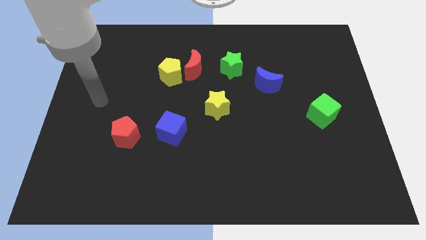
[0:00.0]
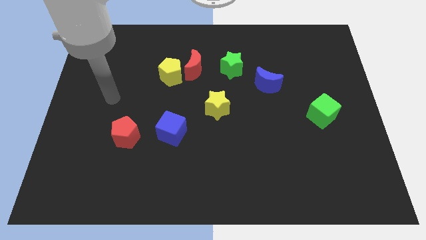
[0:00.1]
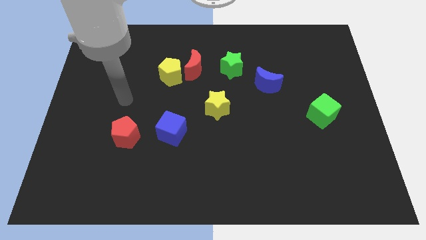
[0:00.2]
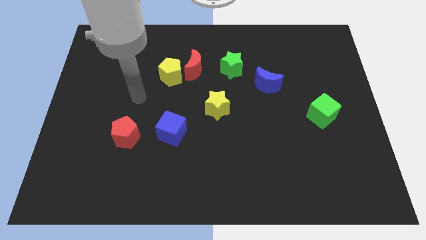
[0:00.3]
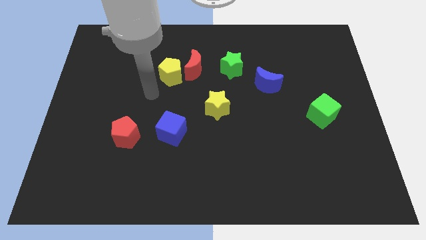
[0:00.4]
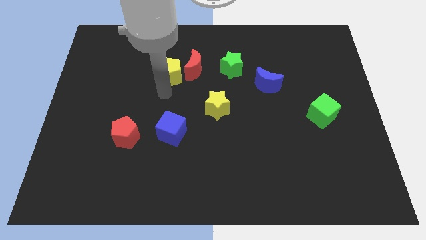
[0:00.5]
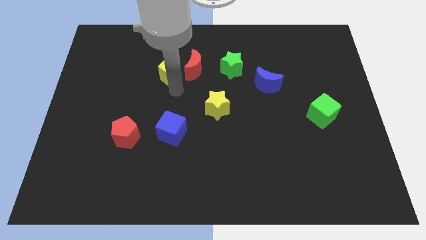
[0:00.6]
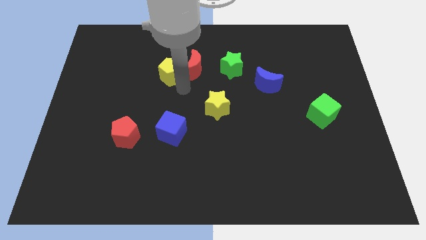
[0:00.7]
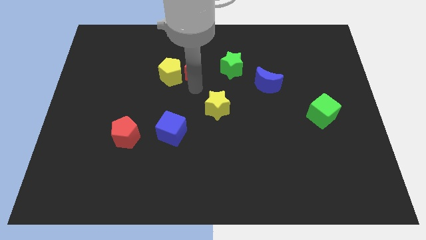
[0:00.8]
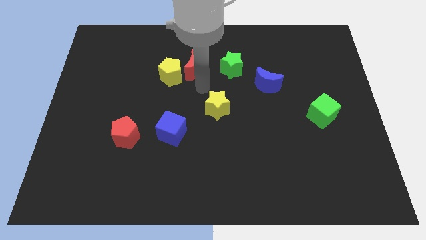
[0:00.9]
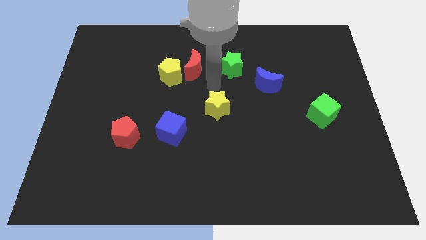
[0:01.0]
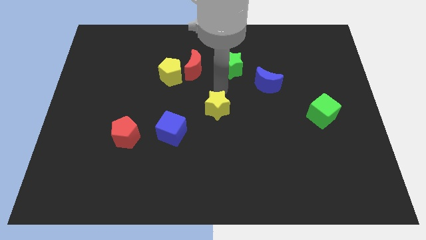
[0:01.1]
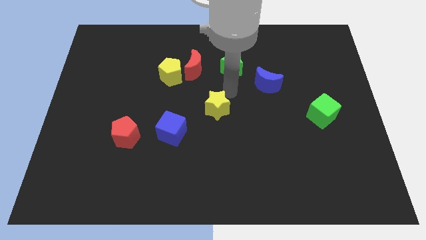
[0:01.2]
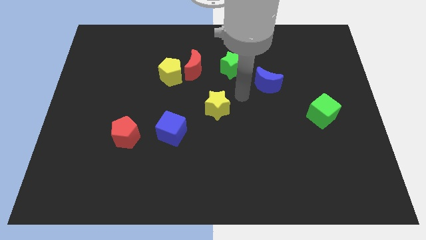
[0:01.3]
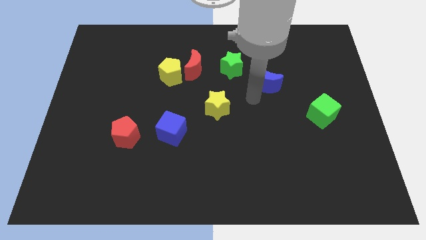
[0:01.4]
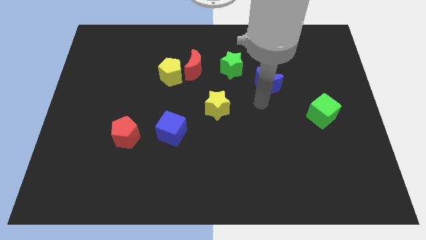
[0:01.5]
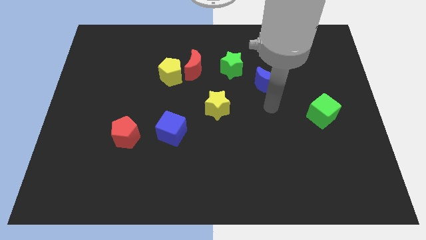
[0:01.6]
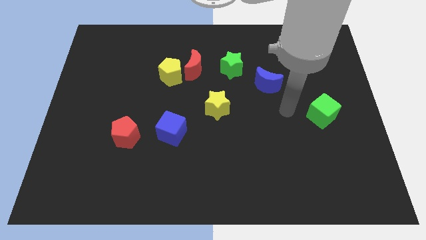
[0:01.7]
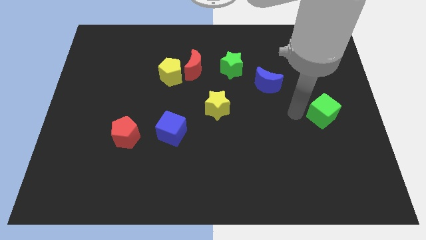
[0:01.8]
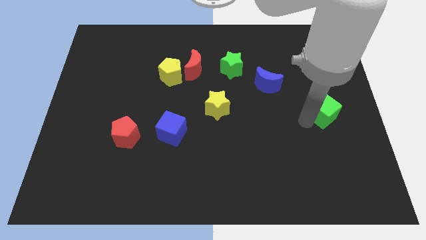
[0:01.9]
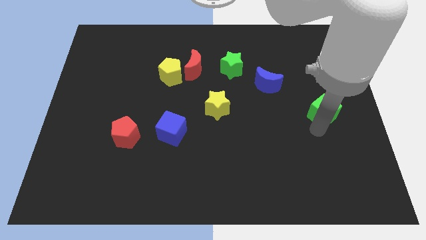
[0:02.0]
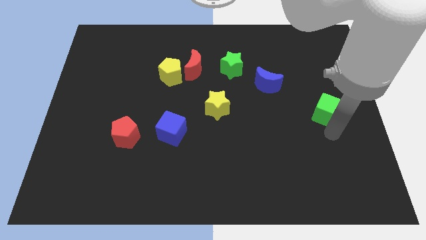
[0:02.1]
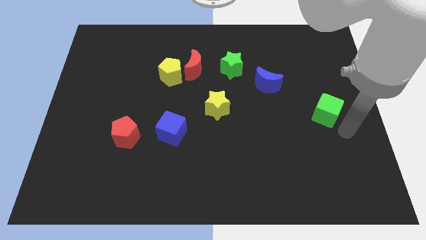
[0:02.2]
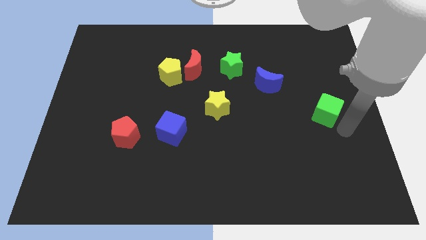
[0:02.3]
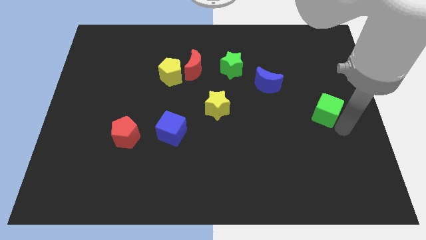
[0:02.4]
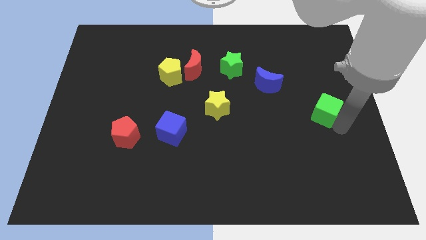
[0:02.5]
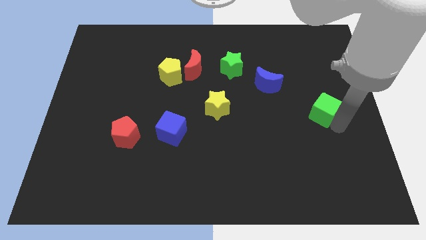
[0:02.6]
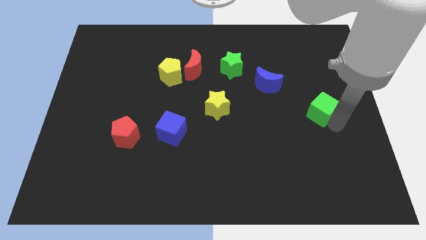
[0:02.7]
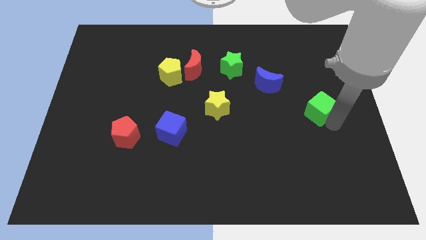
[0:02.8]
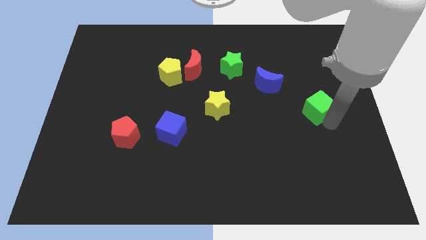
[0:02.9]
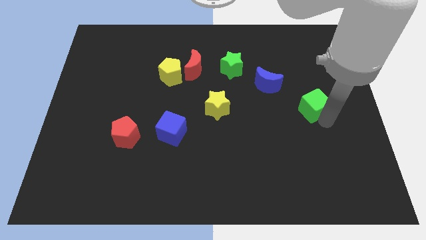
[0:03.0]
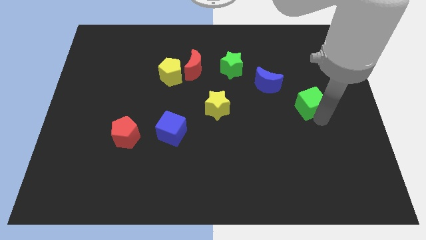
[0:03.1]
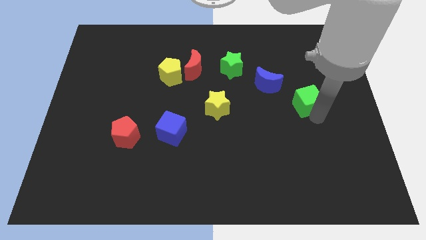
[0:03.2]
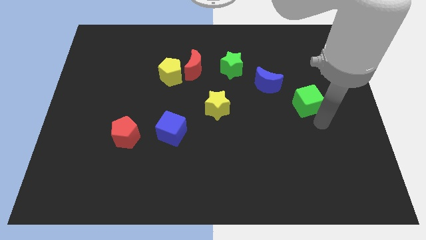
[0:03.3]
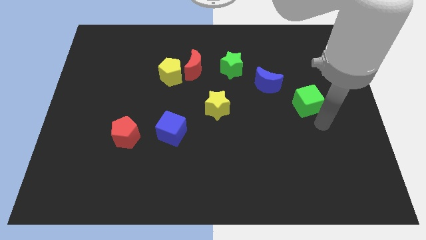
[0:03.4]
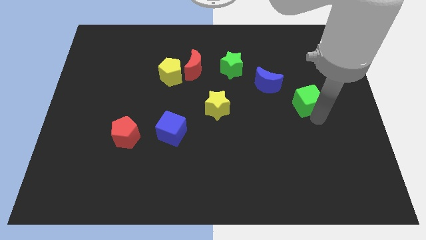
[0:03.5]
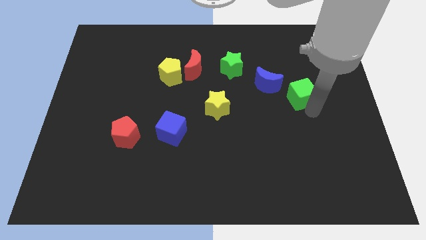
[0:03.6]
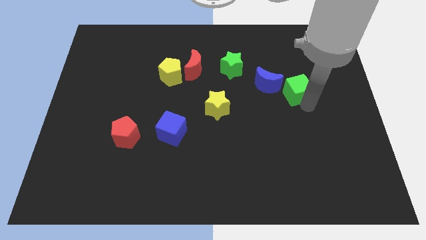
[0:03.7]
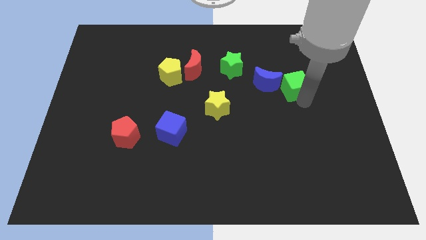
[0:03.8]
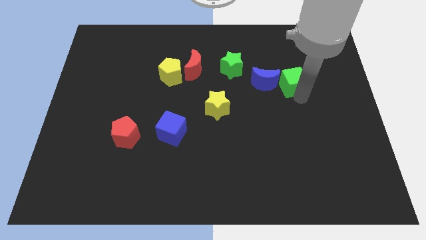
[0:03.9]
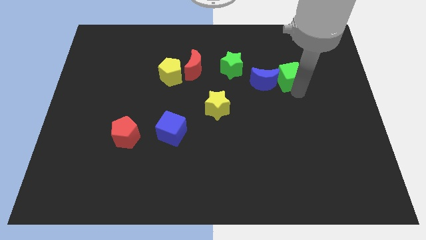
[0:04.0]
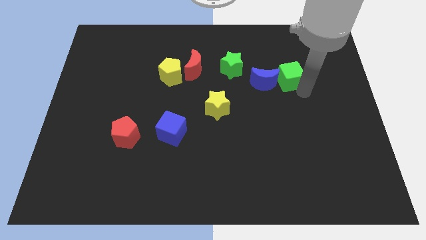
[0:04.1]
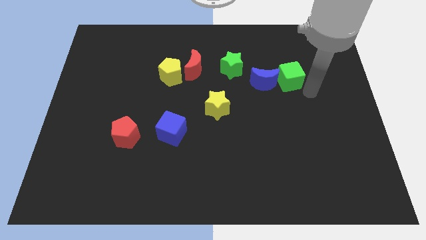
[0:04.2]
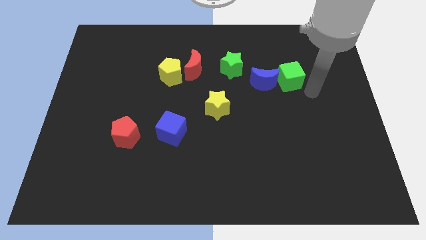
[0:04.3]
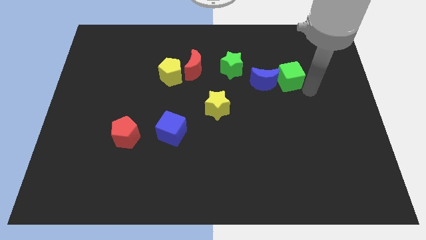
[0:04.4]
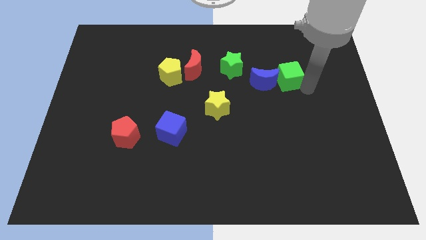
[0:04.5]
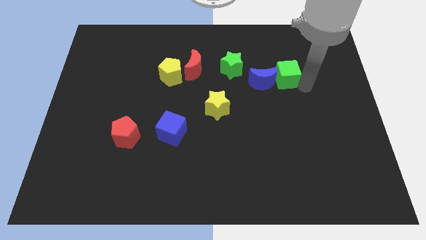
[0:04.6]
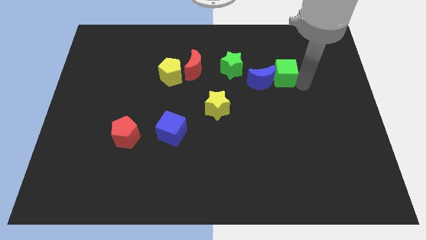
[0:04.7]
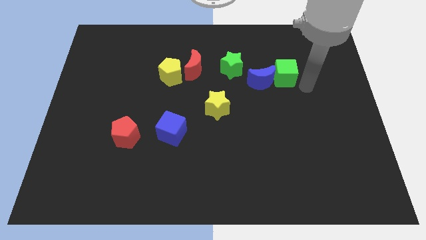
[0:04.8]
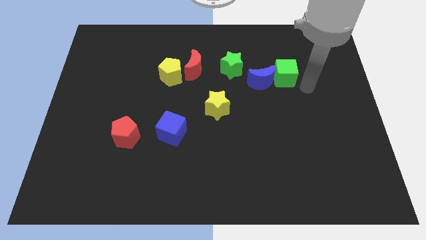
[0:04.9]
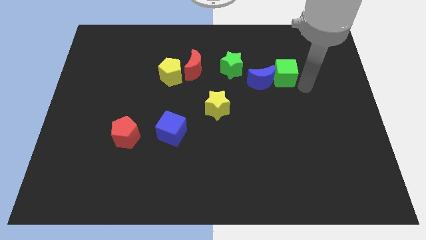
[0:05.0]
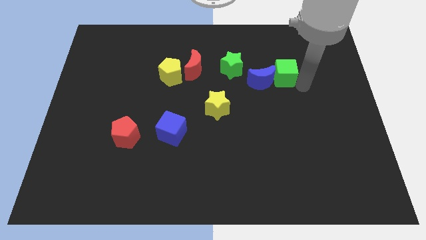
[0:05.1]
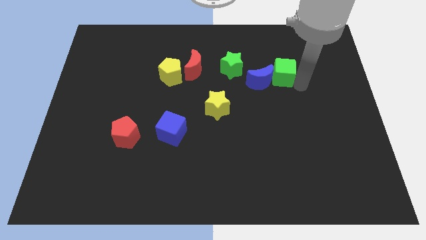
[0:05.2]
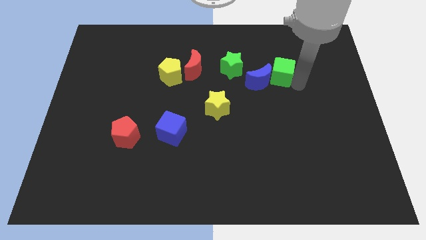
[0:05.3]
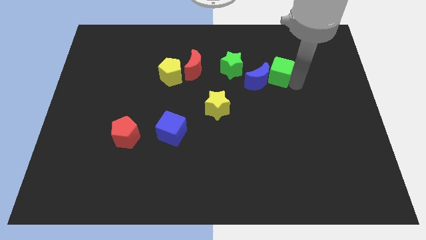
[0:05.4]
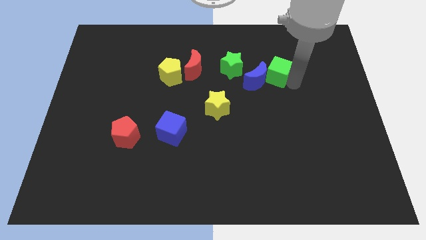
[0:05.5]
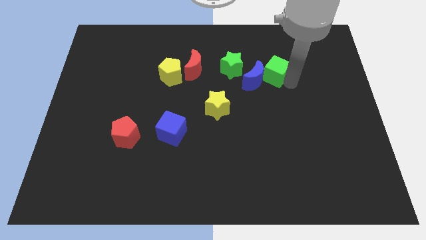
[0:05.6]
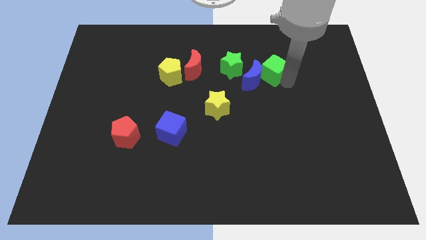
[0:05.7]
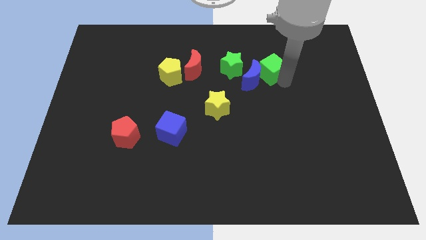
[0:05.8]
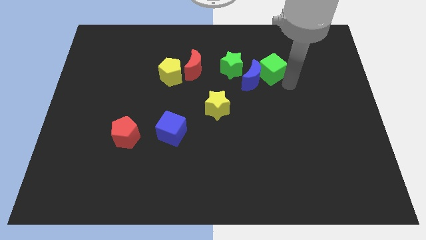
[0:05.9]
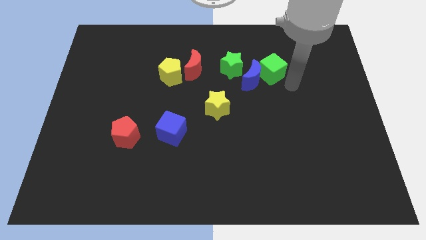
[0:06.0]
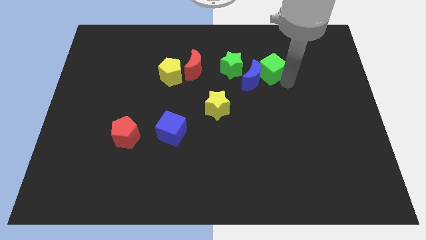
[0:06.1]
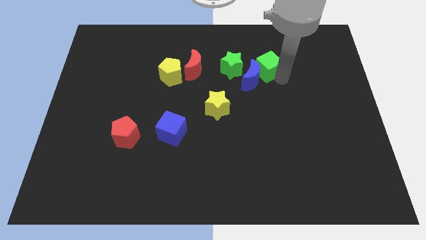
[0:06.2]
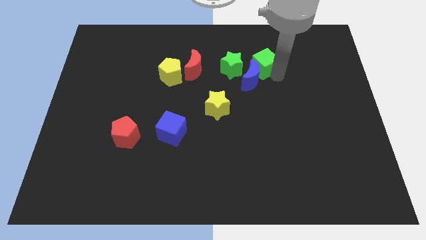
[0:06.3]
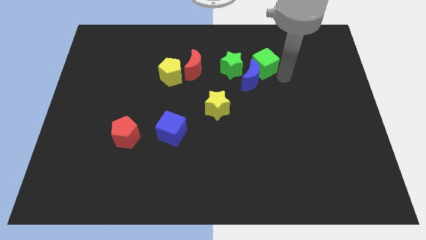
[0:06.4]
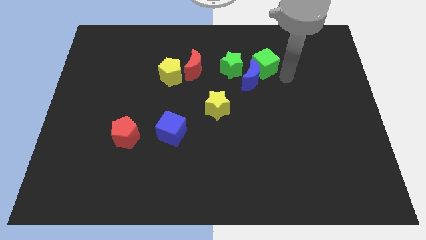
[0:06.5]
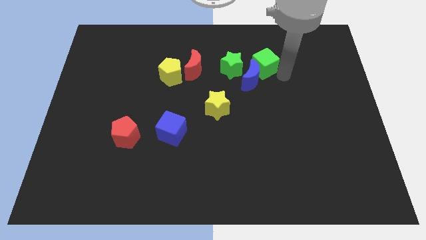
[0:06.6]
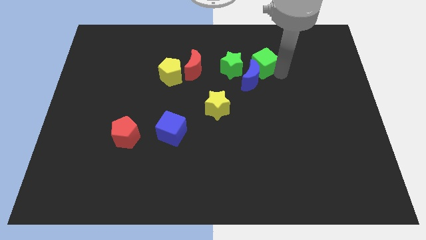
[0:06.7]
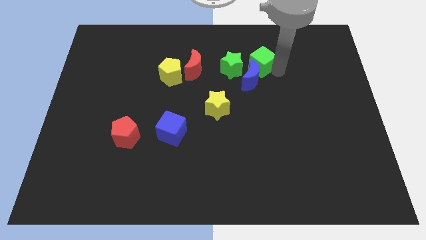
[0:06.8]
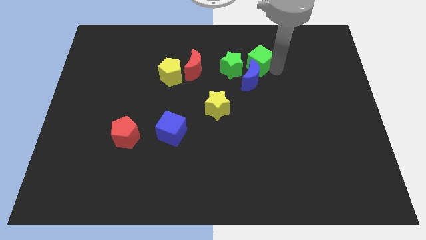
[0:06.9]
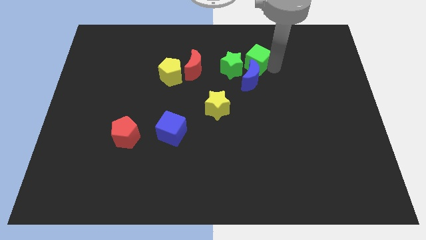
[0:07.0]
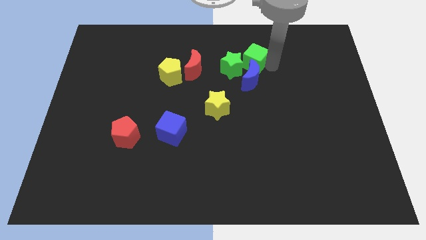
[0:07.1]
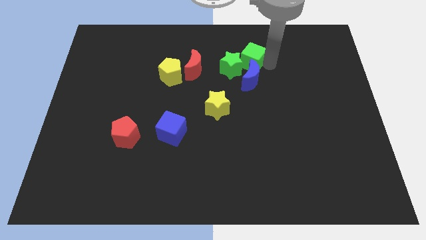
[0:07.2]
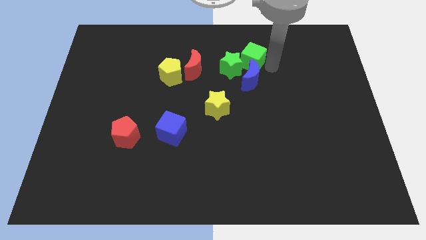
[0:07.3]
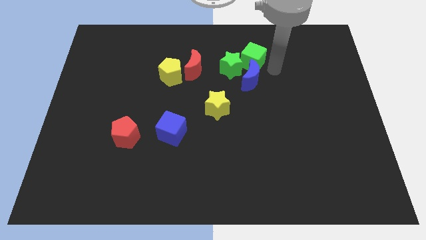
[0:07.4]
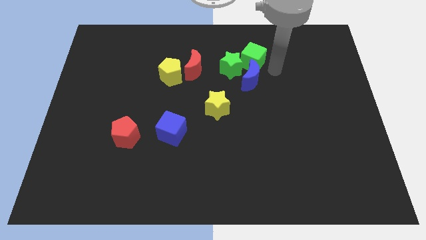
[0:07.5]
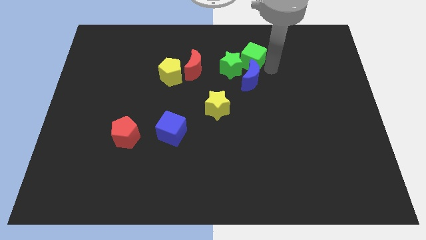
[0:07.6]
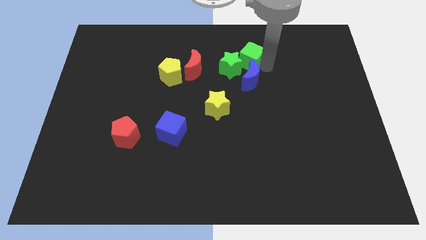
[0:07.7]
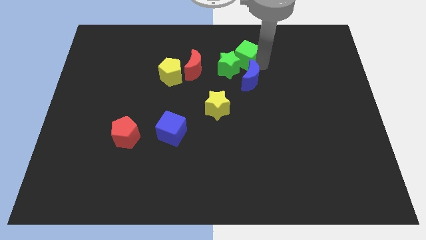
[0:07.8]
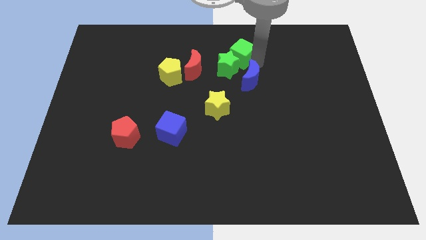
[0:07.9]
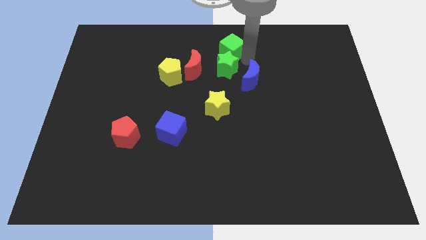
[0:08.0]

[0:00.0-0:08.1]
push the green cube to the top side
